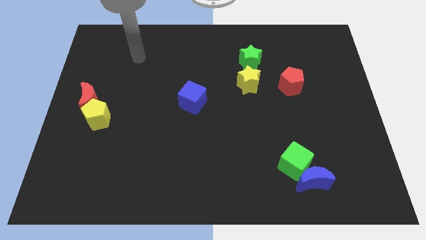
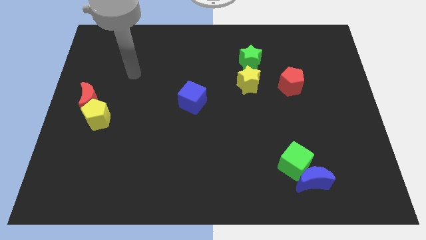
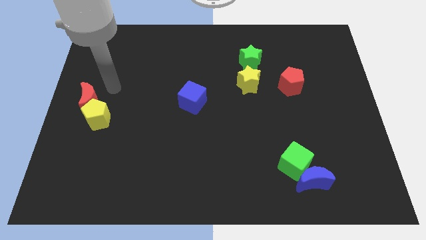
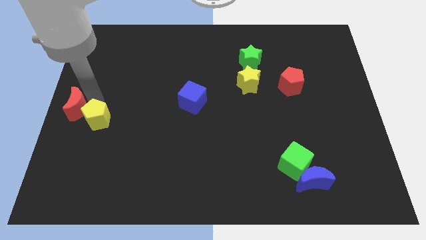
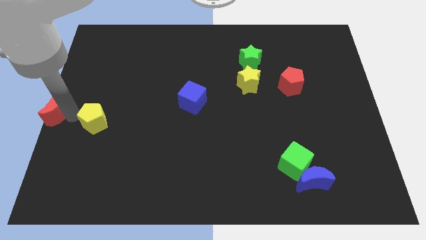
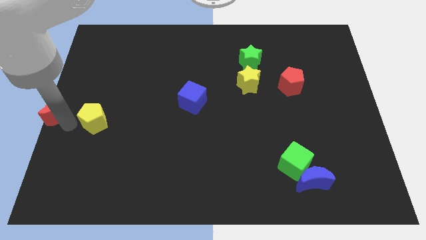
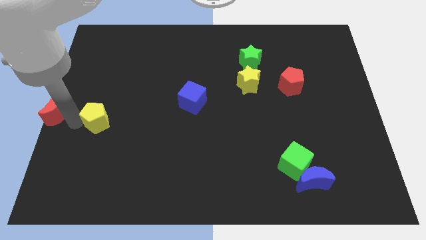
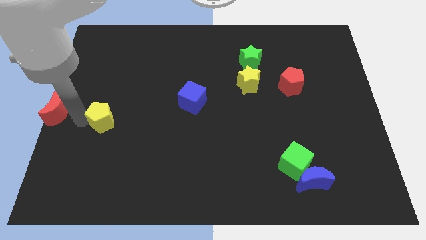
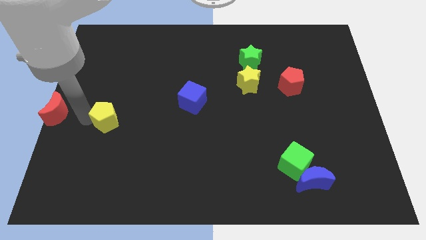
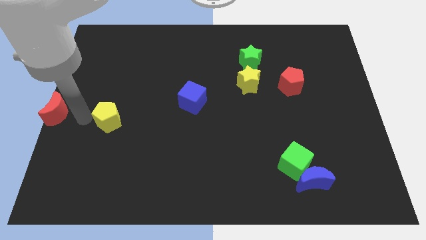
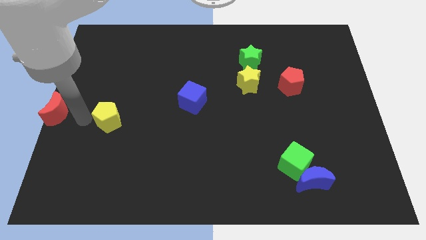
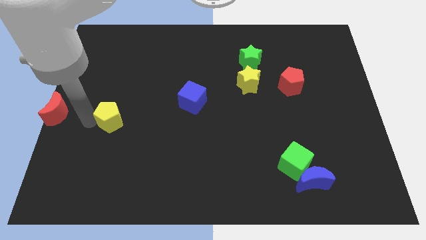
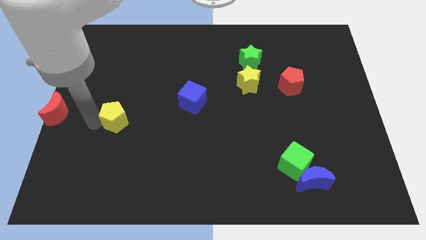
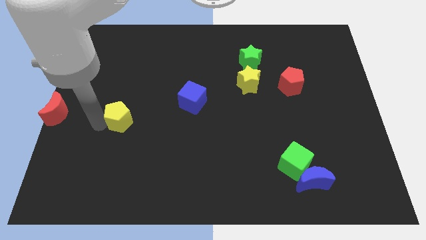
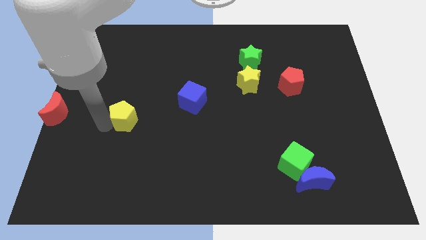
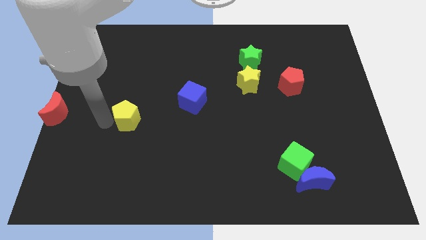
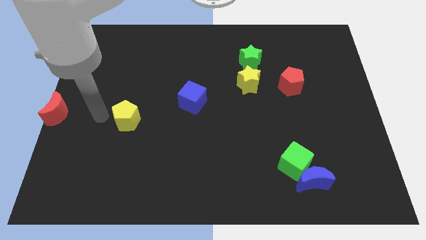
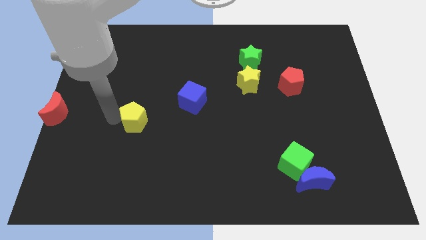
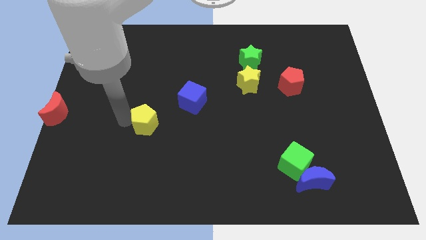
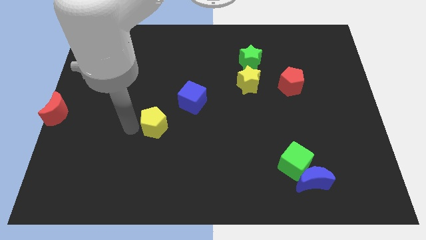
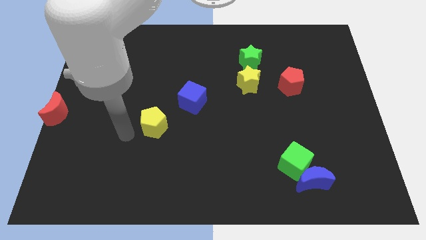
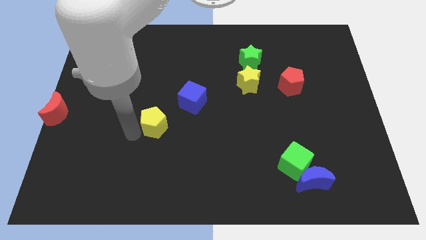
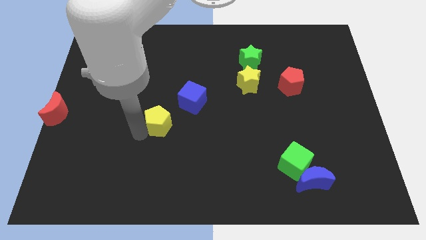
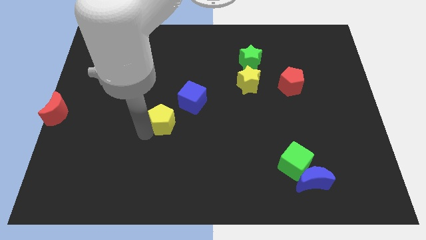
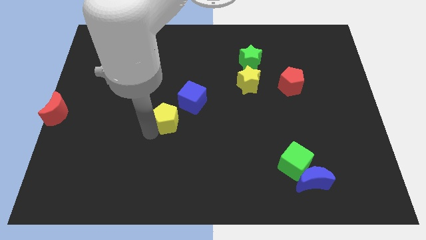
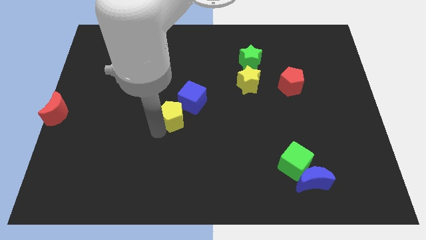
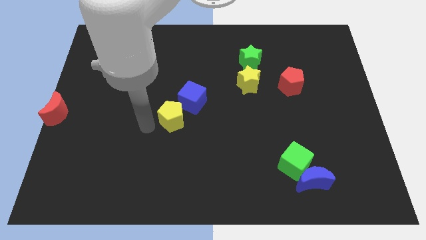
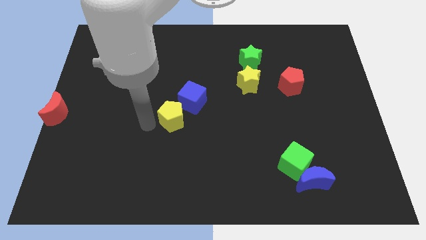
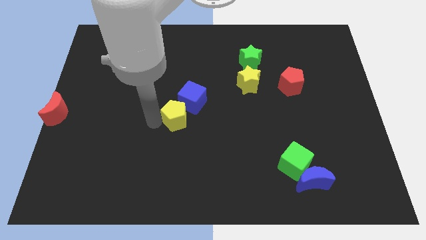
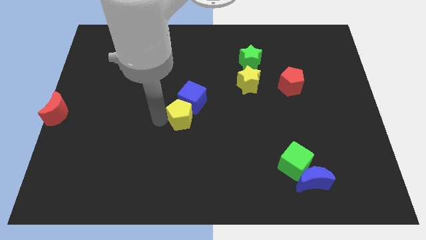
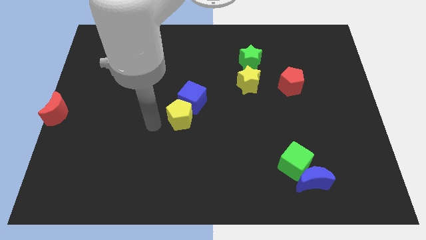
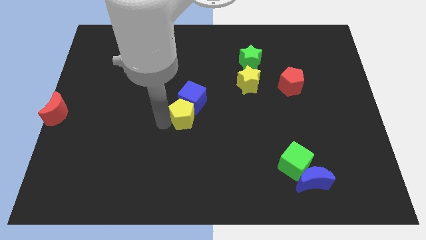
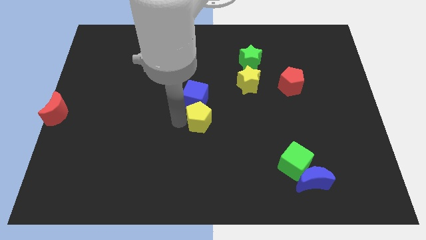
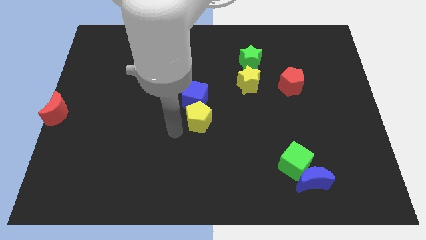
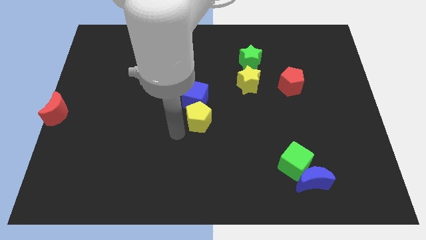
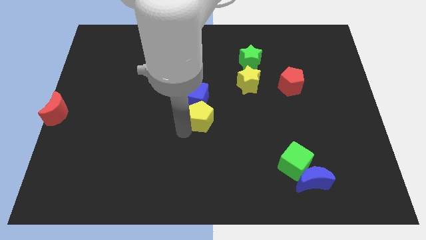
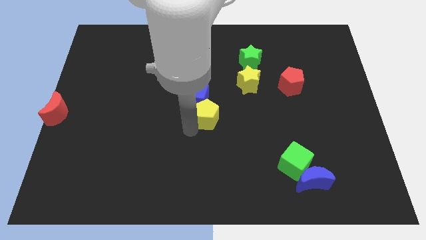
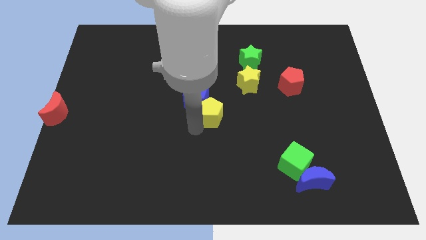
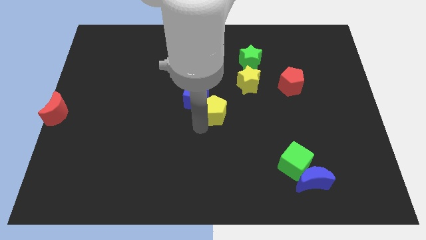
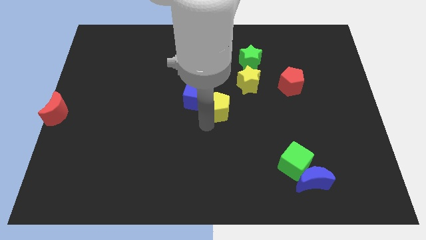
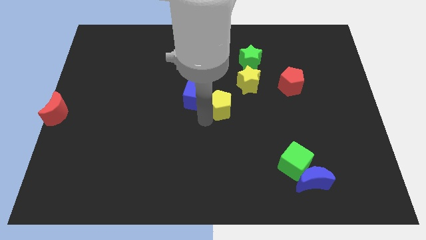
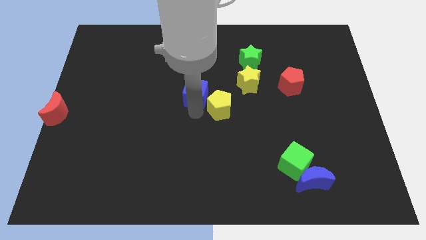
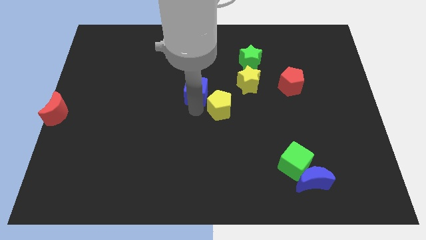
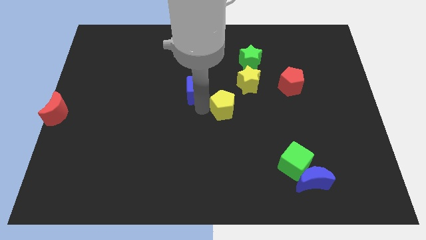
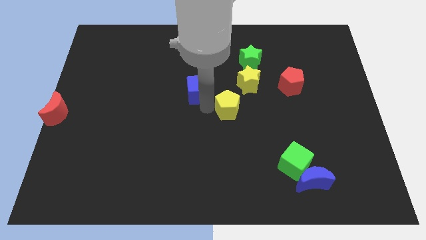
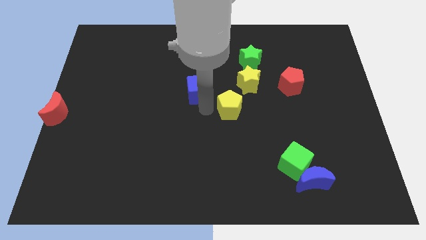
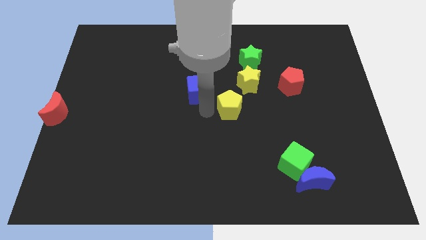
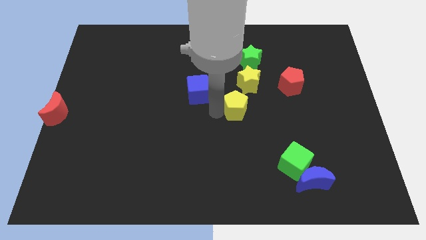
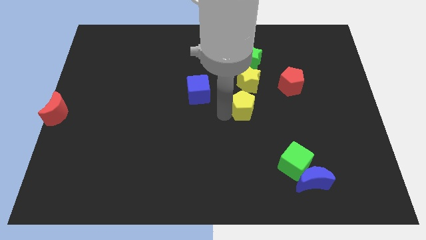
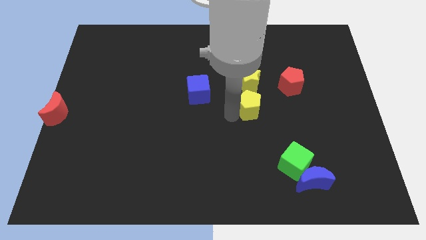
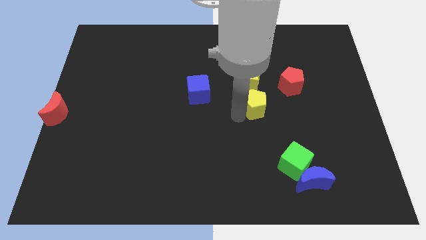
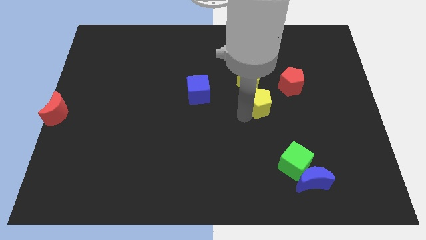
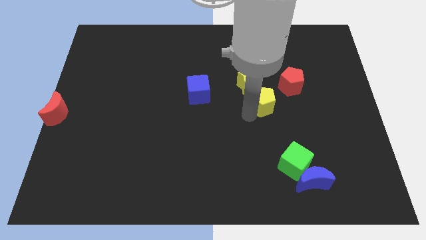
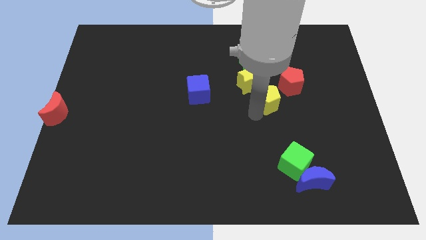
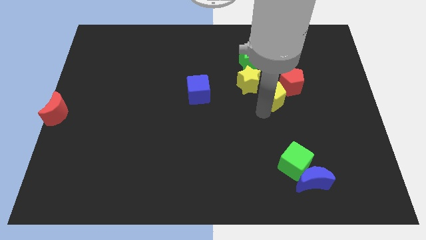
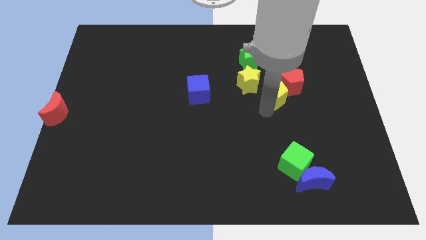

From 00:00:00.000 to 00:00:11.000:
put the yellow pentagon towards the red pentagon

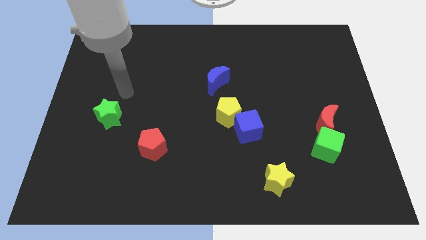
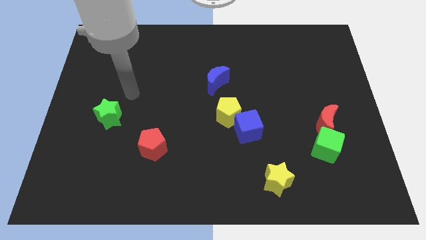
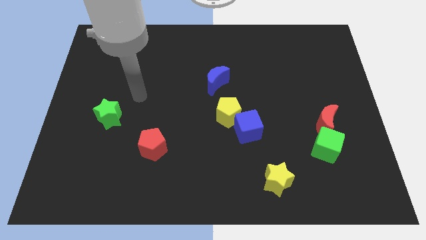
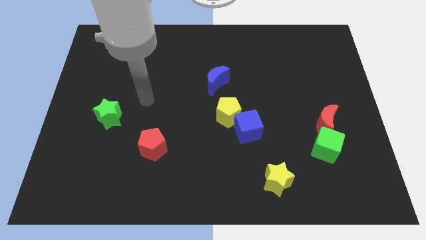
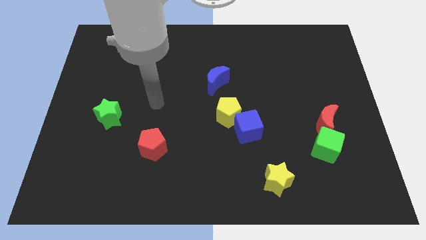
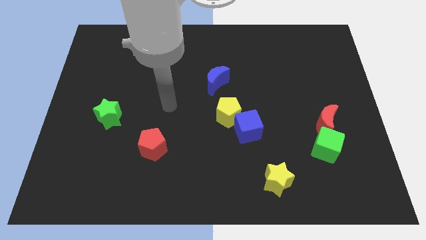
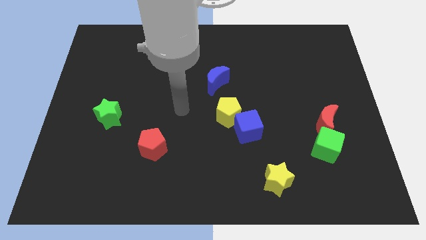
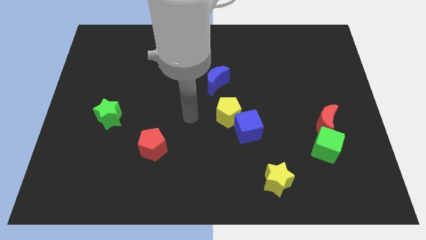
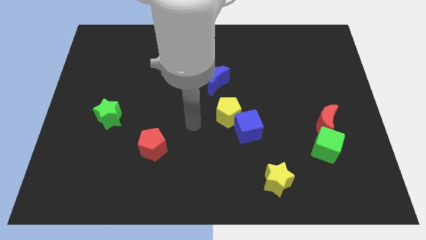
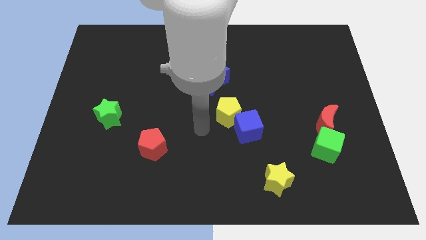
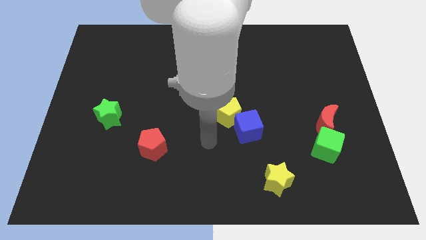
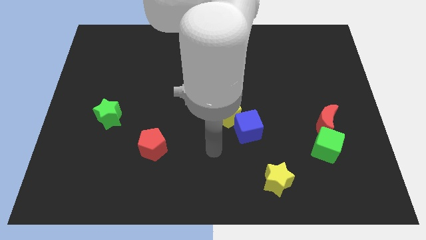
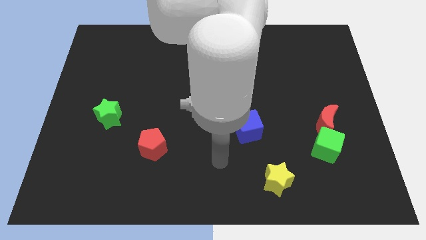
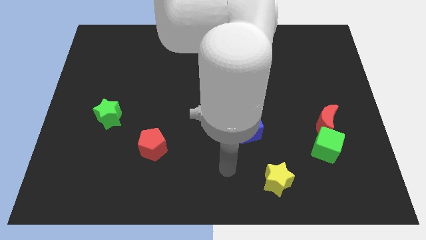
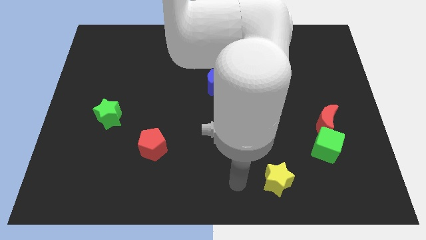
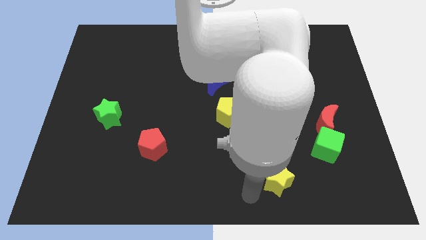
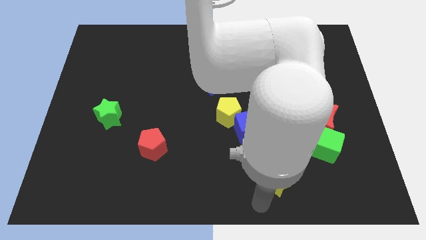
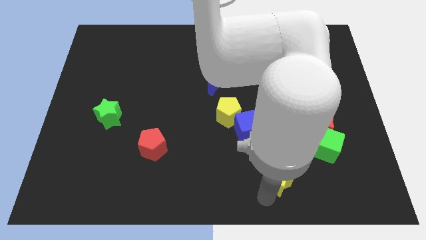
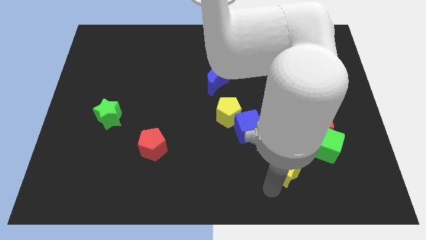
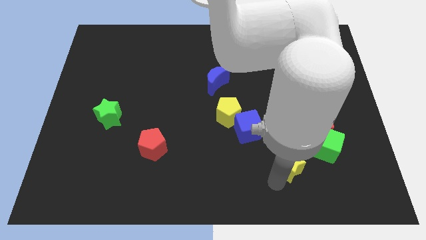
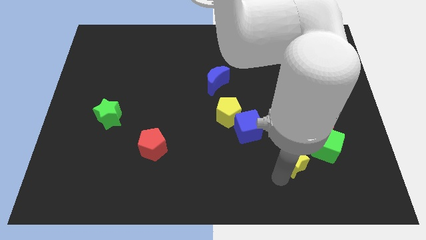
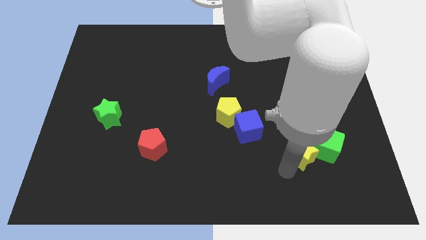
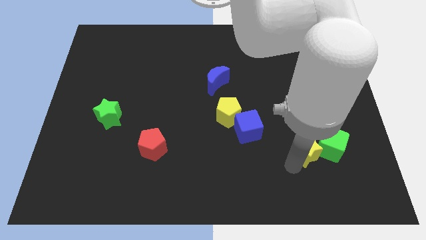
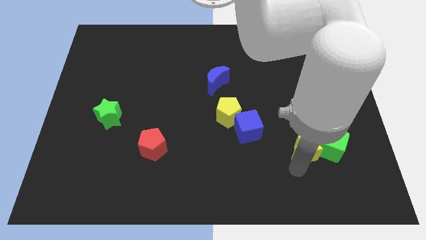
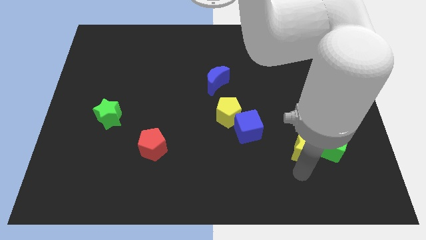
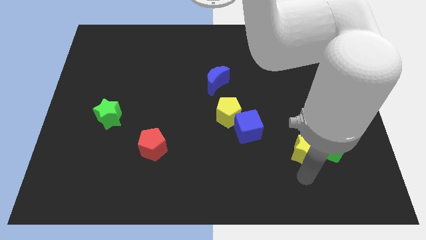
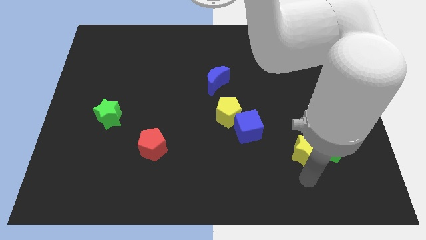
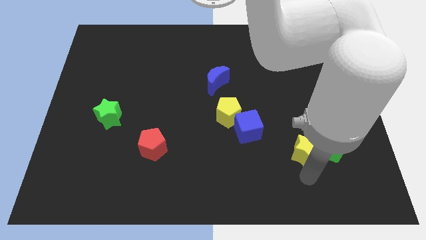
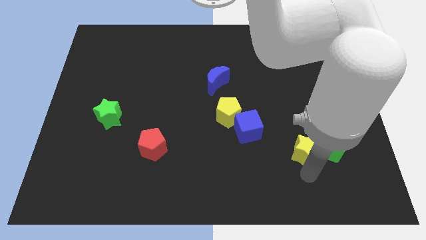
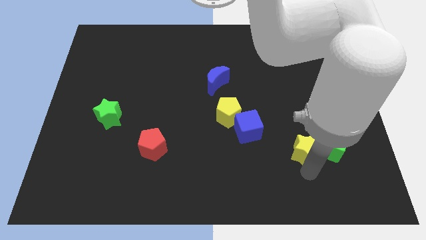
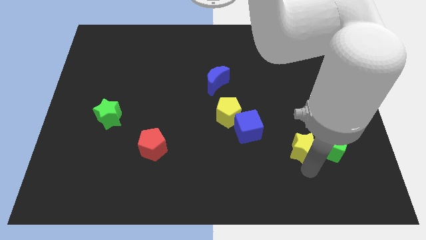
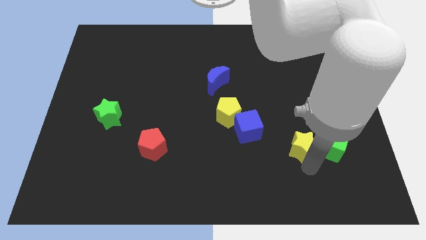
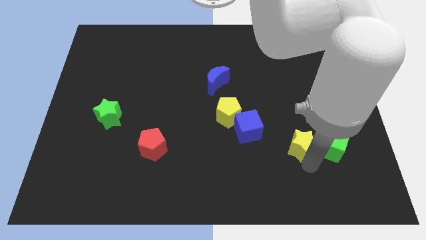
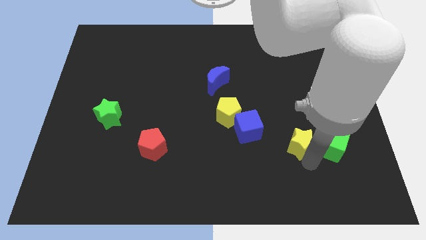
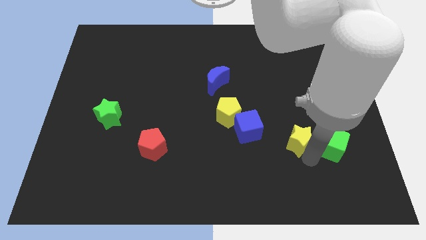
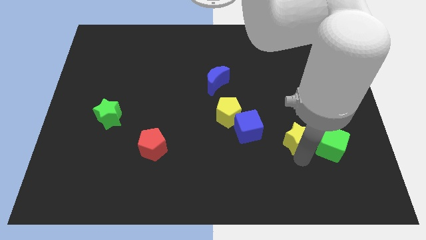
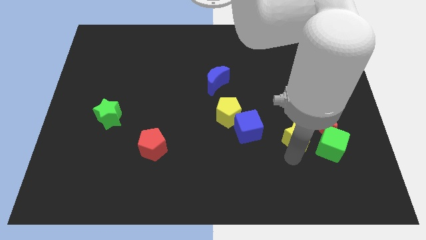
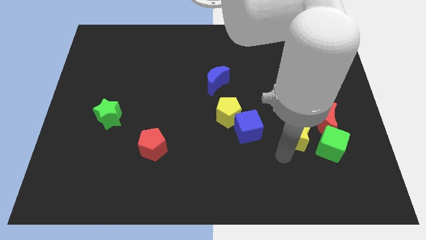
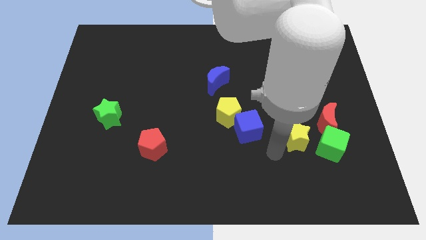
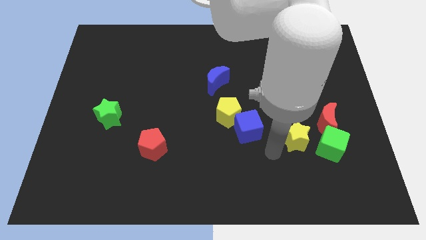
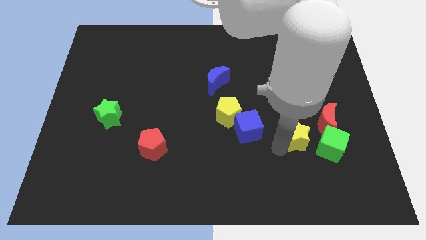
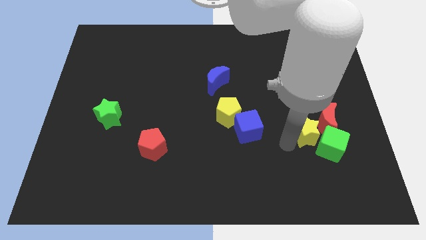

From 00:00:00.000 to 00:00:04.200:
slide the yellow star close to the red moon
